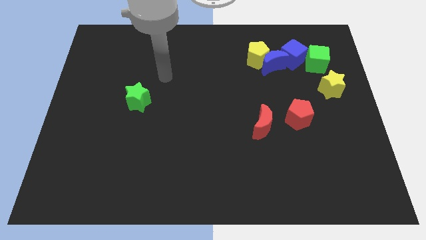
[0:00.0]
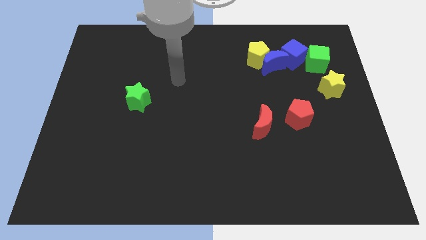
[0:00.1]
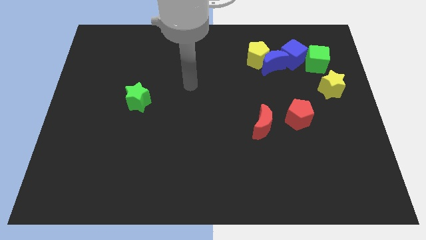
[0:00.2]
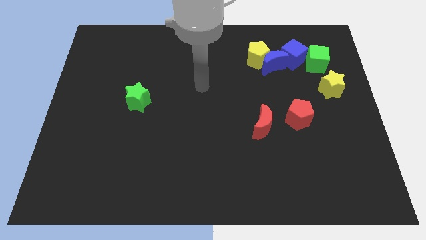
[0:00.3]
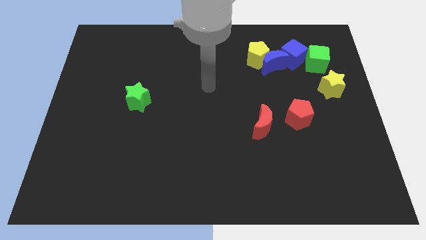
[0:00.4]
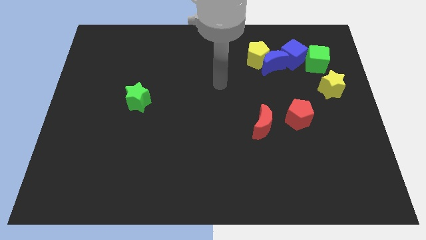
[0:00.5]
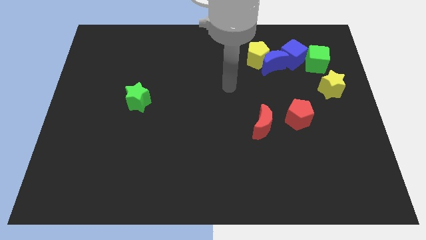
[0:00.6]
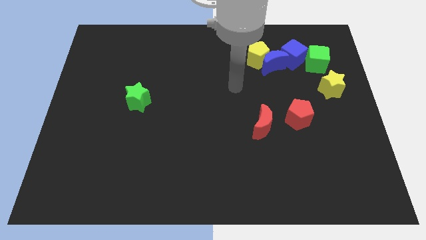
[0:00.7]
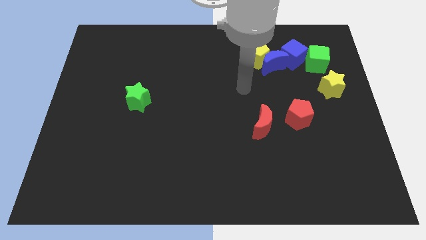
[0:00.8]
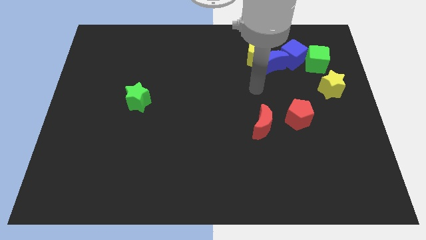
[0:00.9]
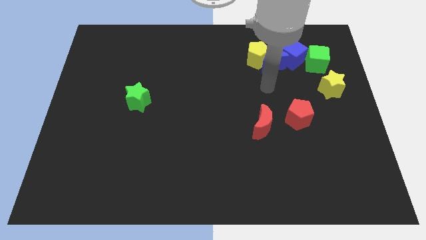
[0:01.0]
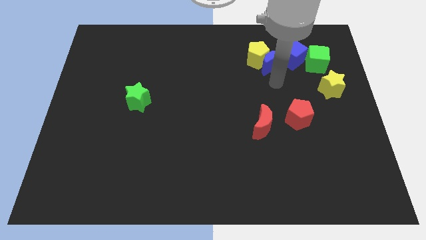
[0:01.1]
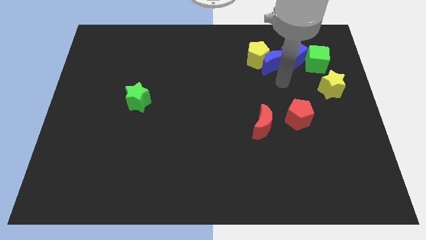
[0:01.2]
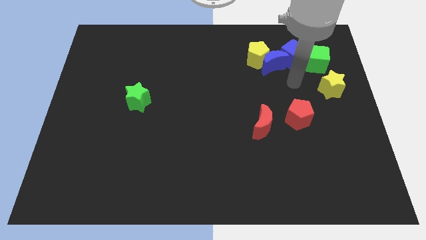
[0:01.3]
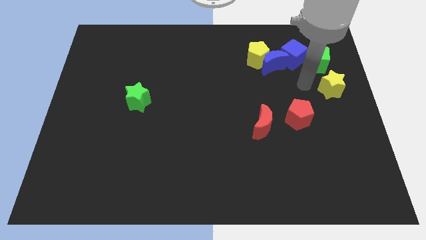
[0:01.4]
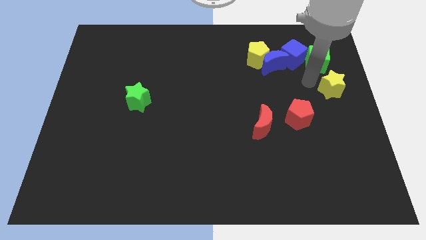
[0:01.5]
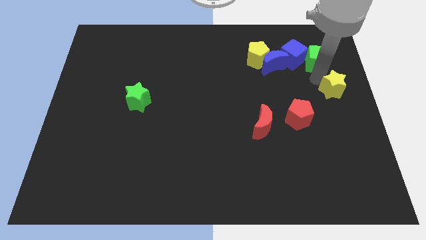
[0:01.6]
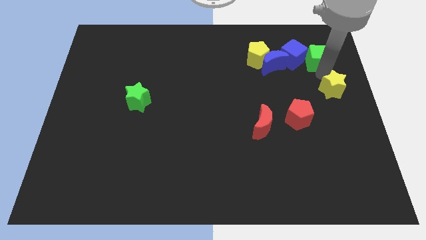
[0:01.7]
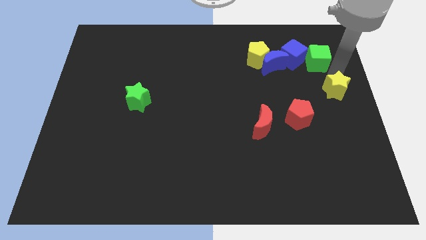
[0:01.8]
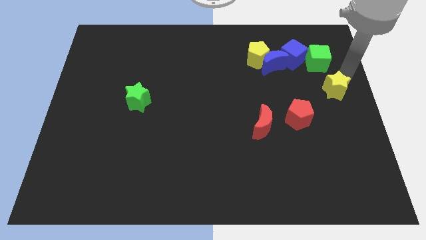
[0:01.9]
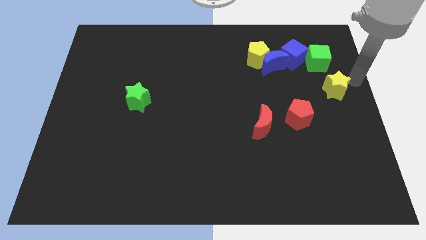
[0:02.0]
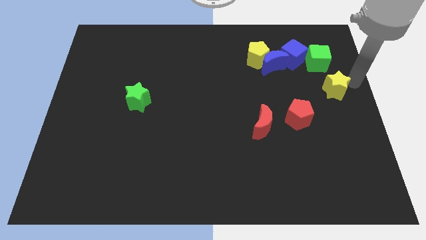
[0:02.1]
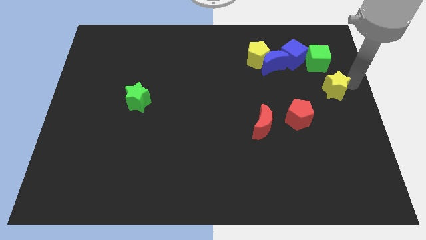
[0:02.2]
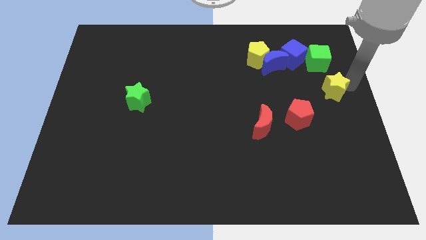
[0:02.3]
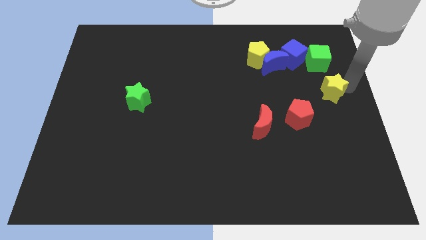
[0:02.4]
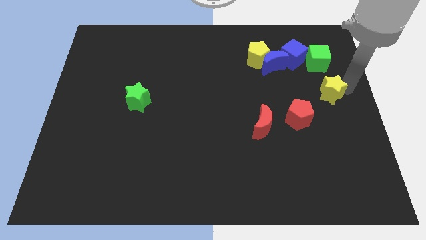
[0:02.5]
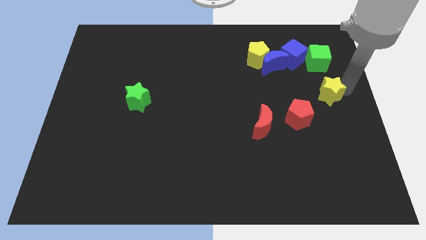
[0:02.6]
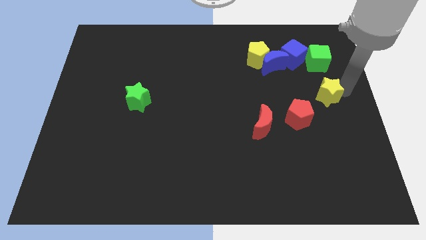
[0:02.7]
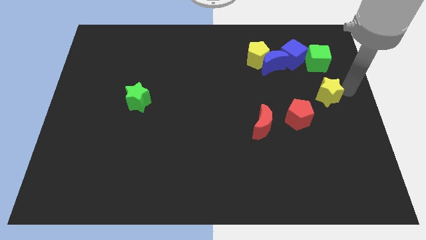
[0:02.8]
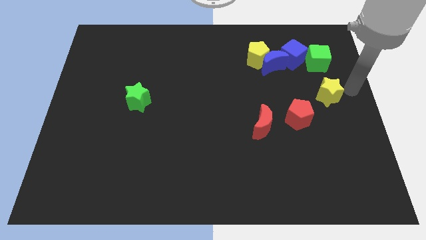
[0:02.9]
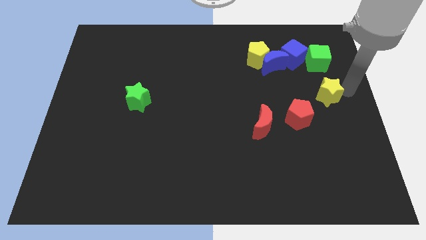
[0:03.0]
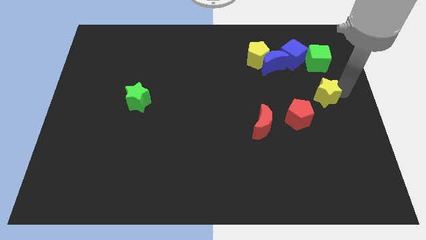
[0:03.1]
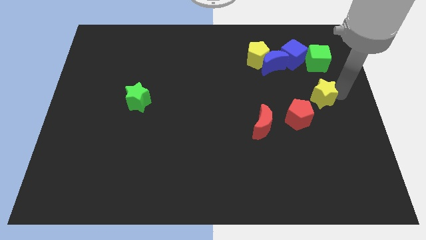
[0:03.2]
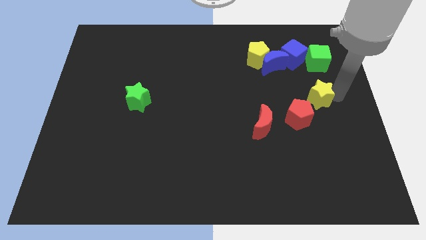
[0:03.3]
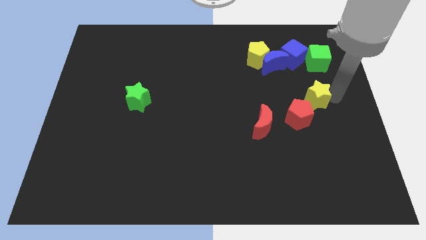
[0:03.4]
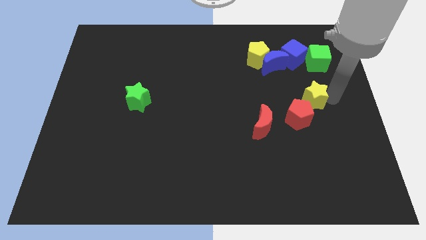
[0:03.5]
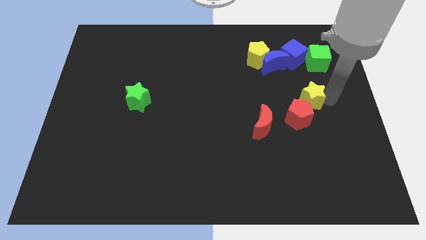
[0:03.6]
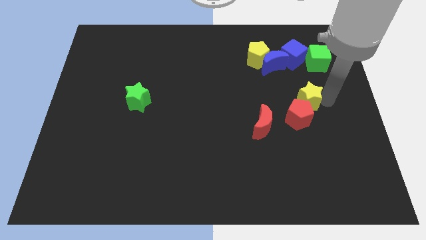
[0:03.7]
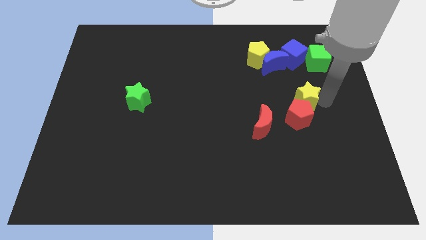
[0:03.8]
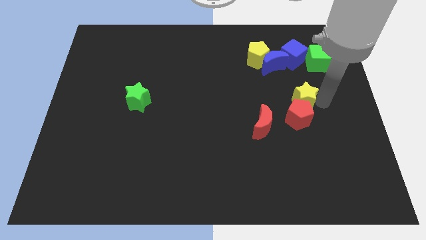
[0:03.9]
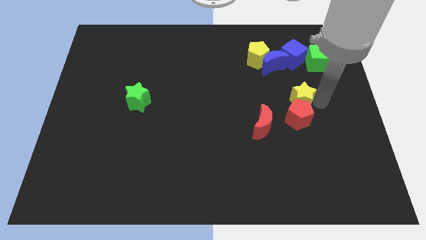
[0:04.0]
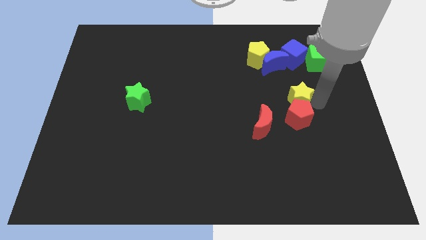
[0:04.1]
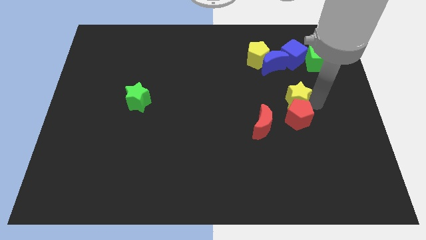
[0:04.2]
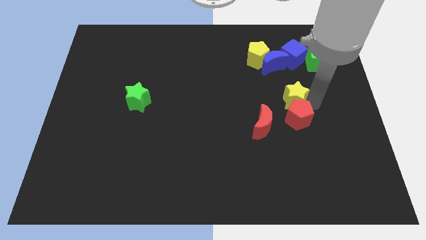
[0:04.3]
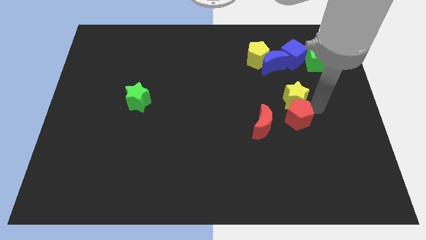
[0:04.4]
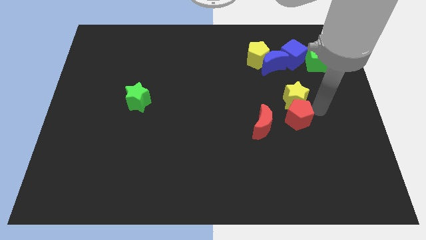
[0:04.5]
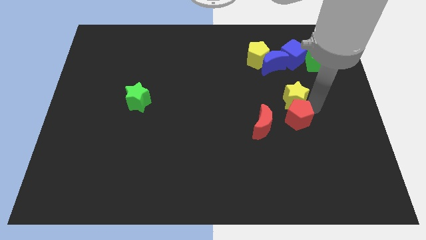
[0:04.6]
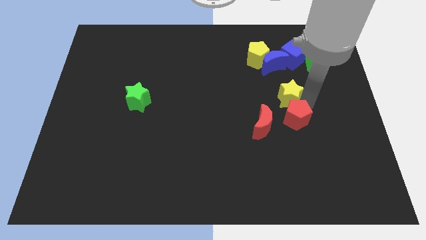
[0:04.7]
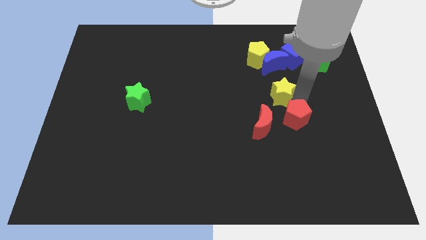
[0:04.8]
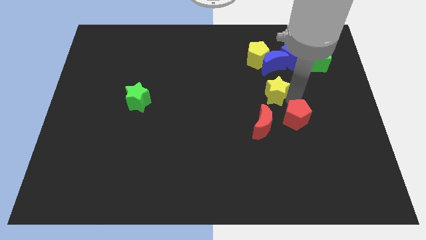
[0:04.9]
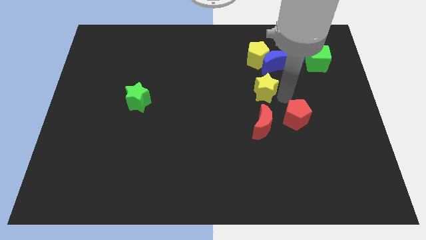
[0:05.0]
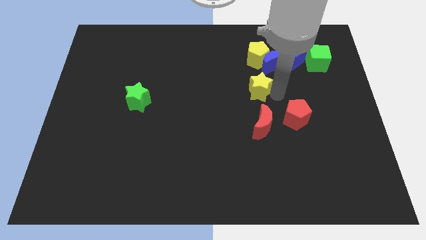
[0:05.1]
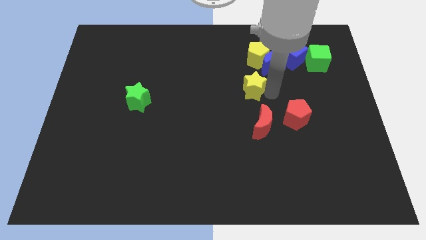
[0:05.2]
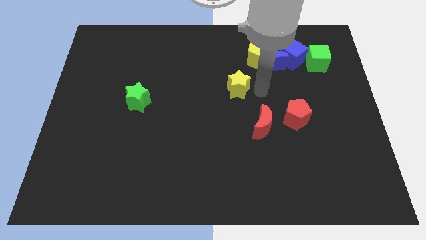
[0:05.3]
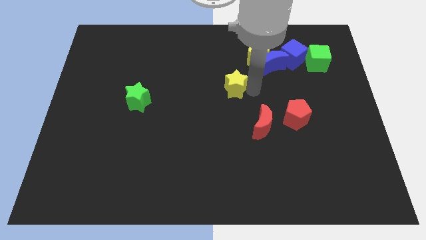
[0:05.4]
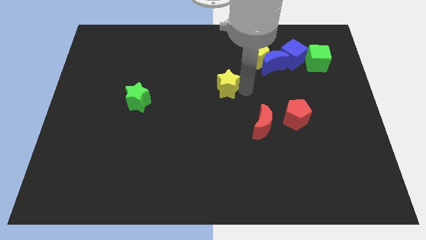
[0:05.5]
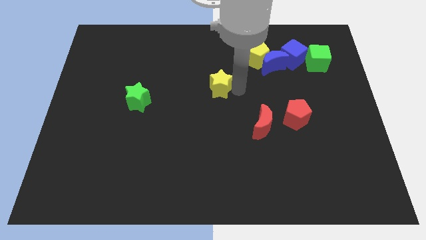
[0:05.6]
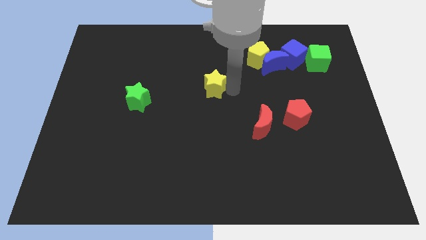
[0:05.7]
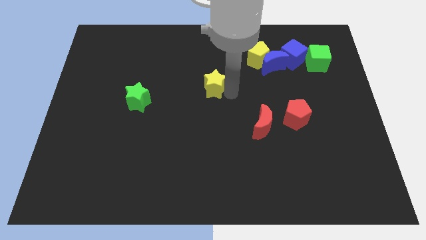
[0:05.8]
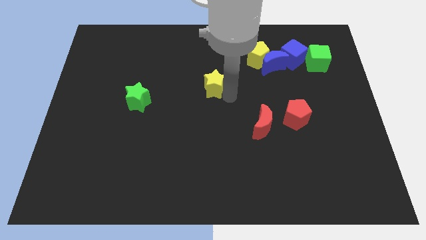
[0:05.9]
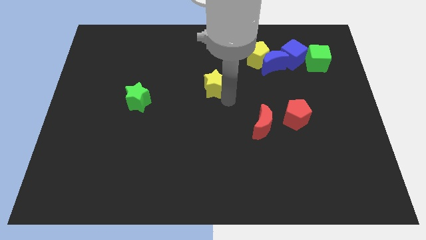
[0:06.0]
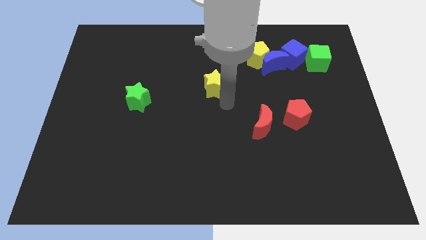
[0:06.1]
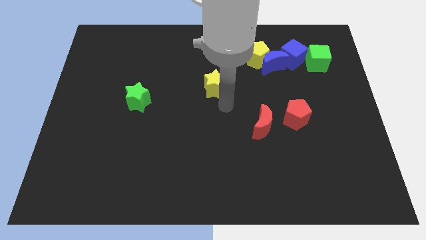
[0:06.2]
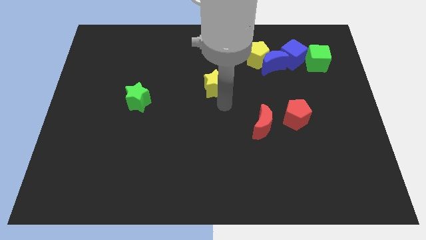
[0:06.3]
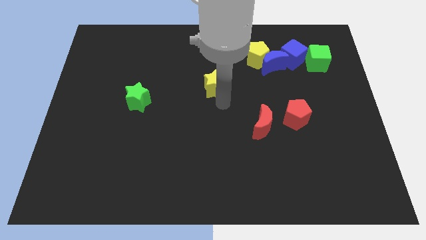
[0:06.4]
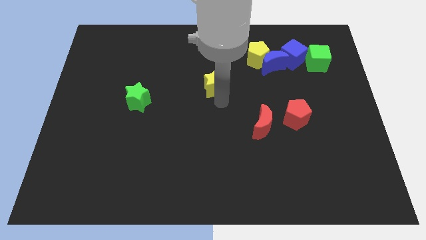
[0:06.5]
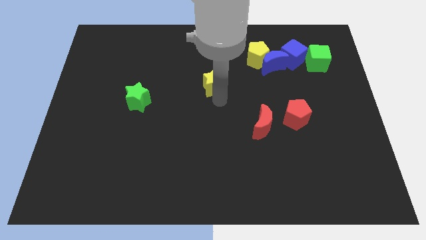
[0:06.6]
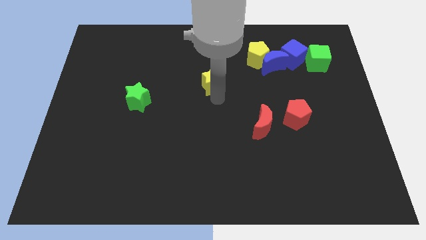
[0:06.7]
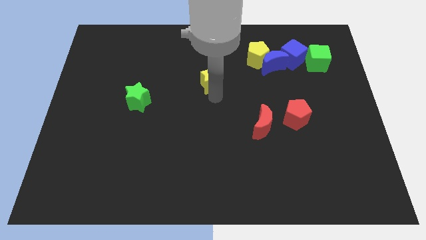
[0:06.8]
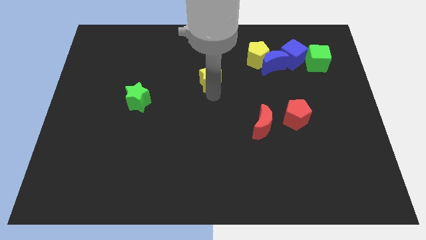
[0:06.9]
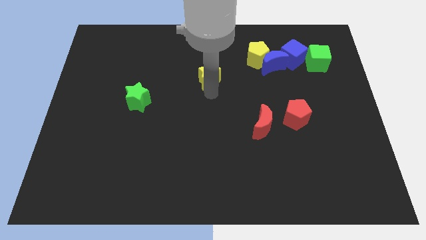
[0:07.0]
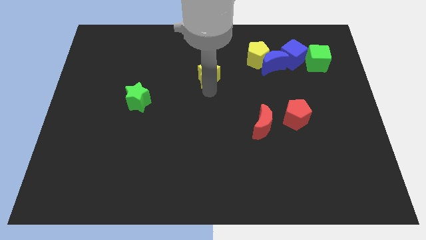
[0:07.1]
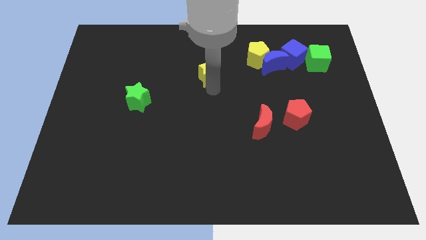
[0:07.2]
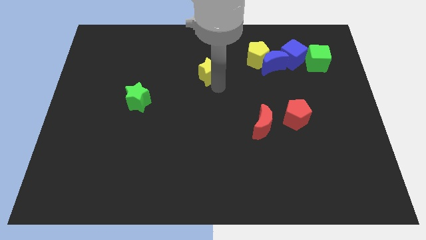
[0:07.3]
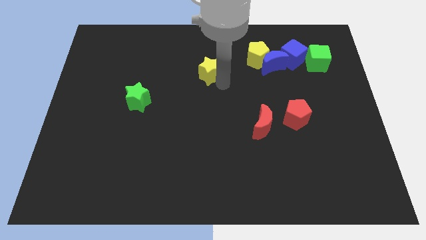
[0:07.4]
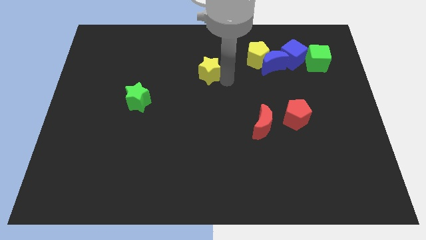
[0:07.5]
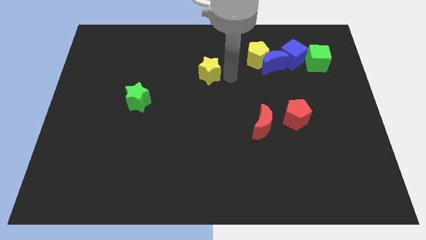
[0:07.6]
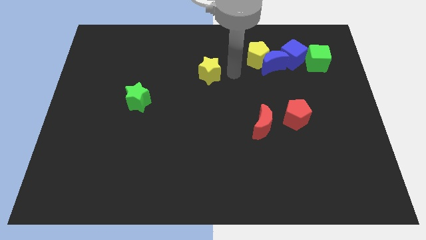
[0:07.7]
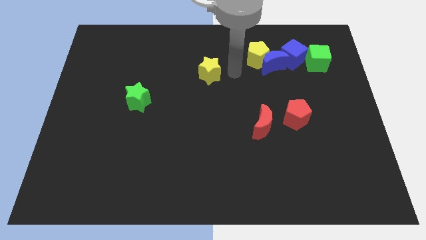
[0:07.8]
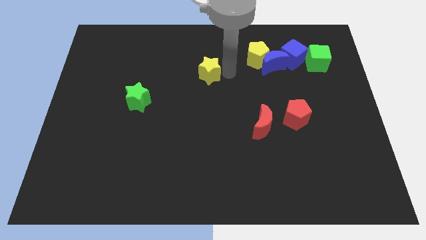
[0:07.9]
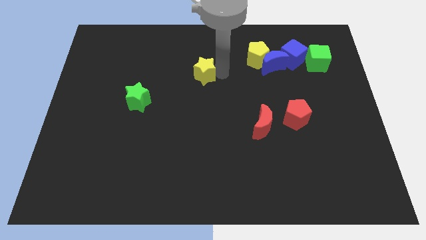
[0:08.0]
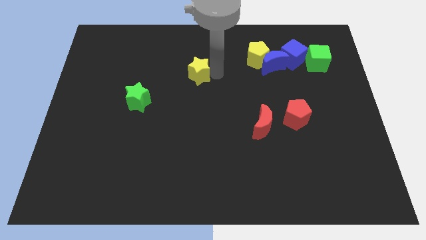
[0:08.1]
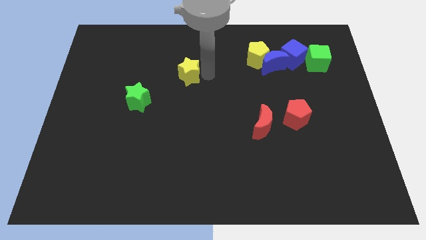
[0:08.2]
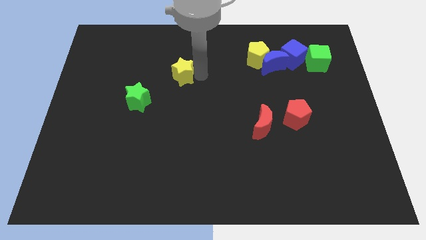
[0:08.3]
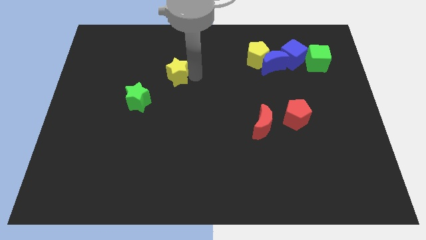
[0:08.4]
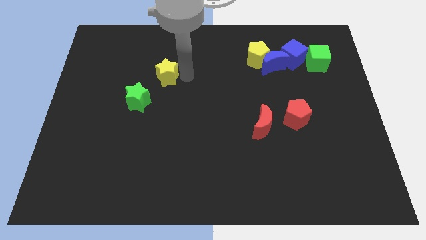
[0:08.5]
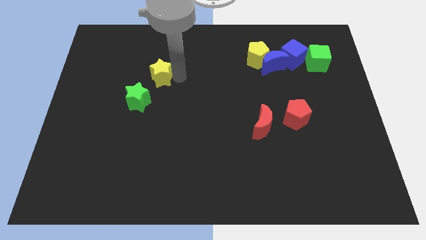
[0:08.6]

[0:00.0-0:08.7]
push the yellow star to the top of the green star
